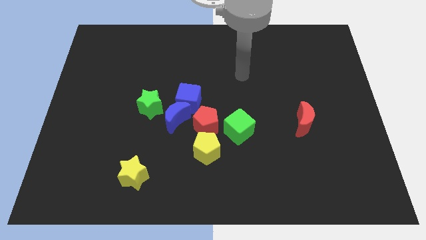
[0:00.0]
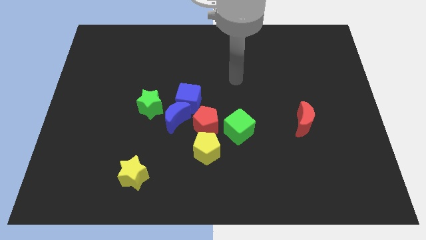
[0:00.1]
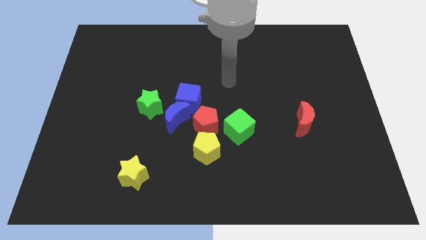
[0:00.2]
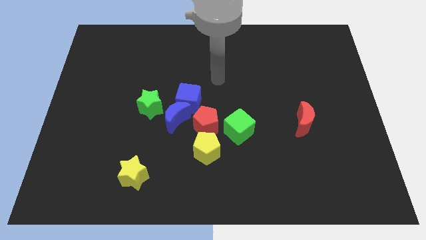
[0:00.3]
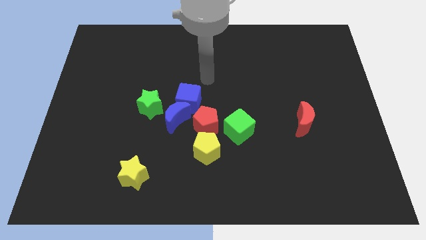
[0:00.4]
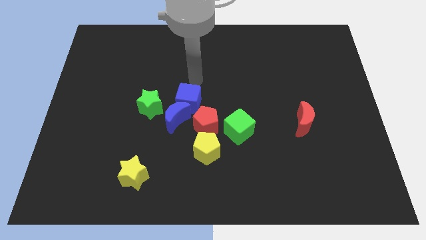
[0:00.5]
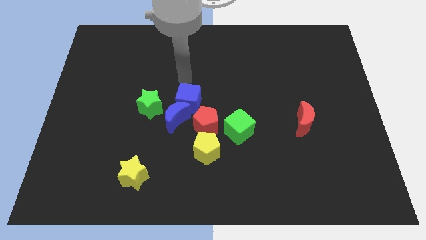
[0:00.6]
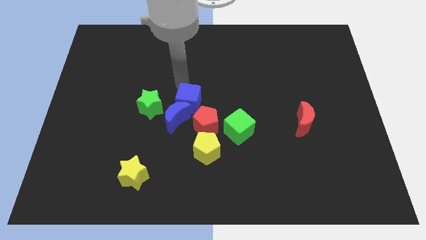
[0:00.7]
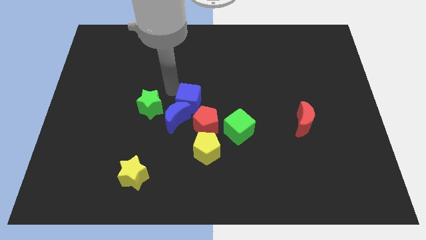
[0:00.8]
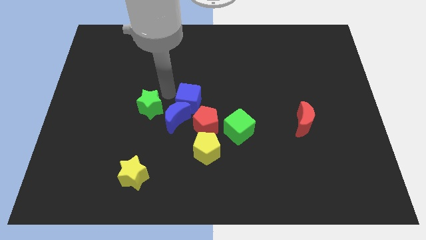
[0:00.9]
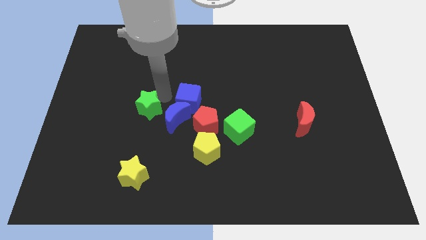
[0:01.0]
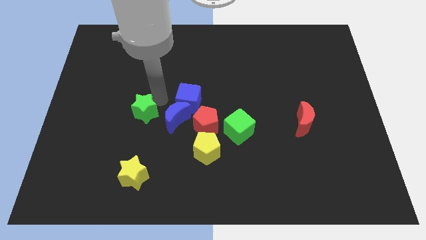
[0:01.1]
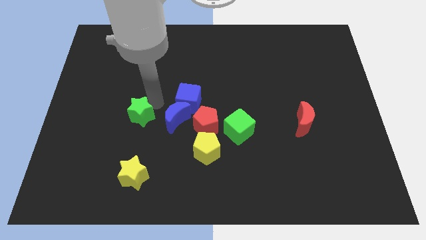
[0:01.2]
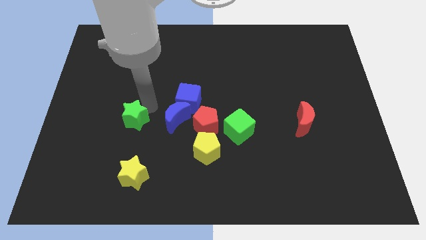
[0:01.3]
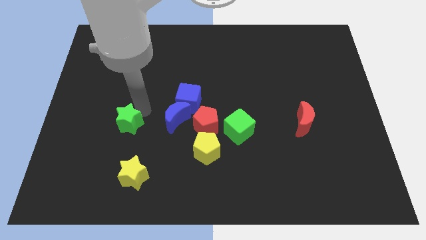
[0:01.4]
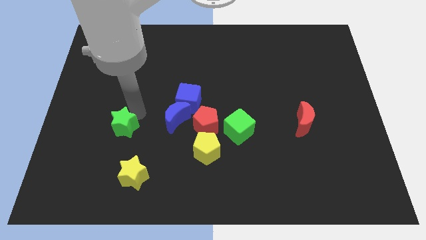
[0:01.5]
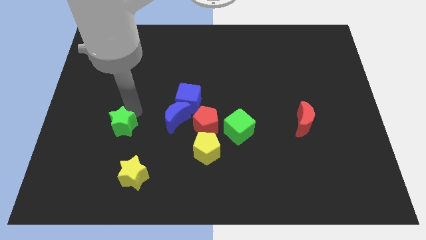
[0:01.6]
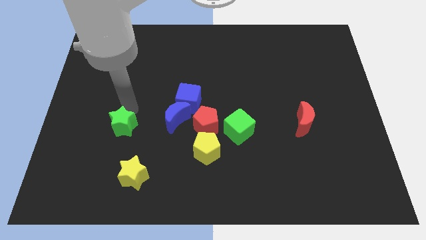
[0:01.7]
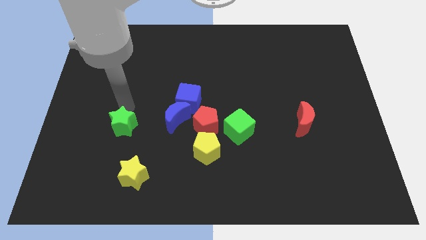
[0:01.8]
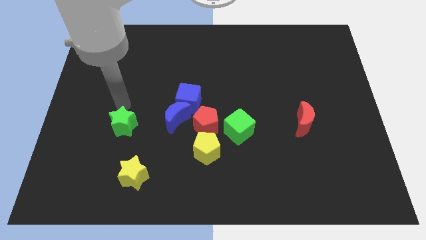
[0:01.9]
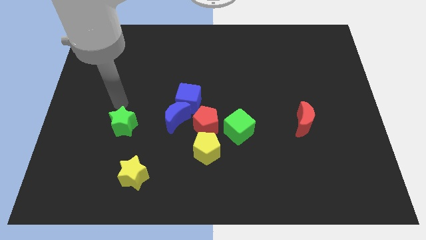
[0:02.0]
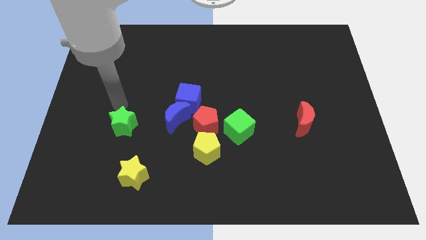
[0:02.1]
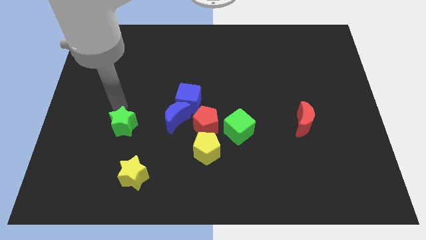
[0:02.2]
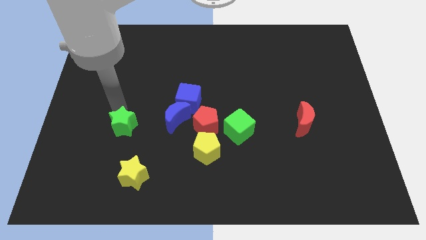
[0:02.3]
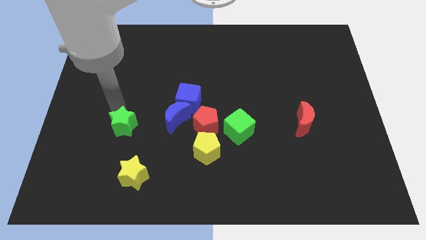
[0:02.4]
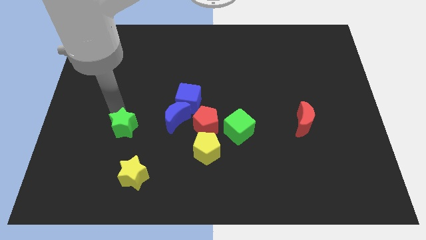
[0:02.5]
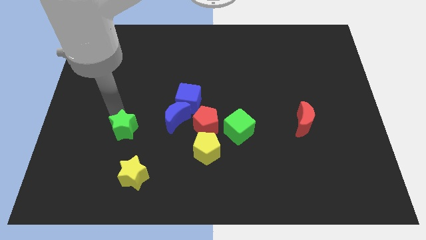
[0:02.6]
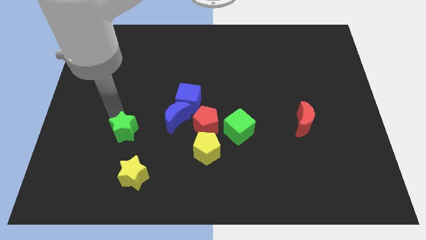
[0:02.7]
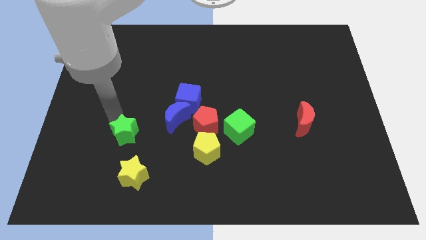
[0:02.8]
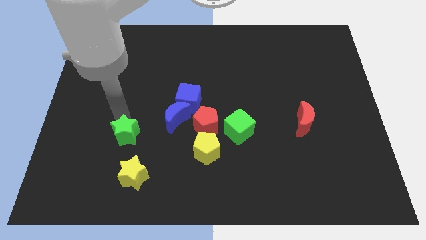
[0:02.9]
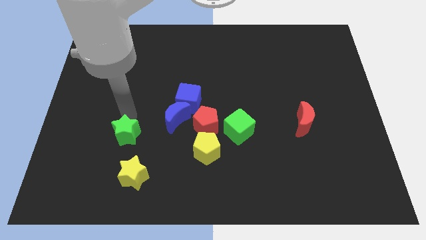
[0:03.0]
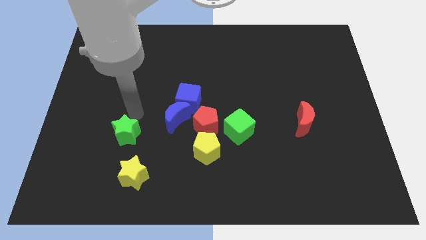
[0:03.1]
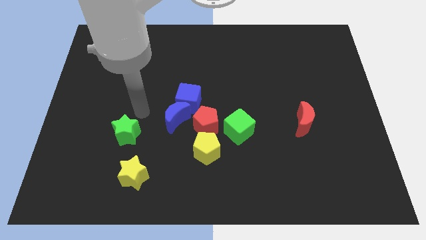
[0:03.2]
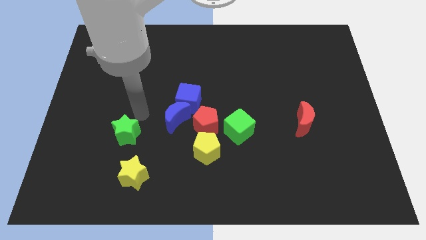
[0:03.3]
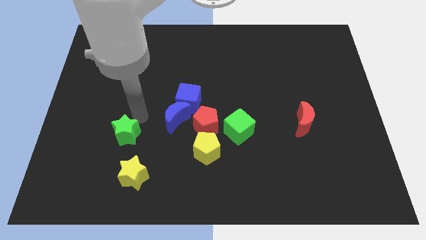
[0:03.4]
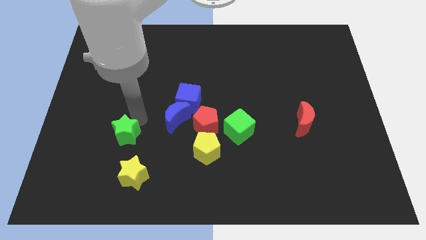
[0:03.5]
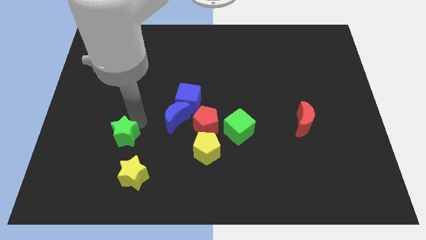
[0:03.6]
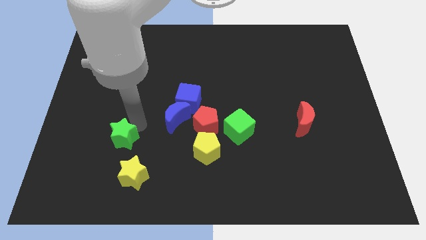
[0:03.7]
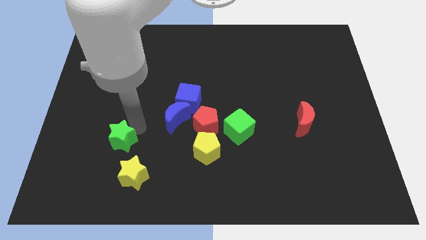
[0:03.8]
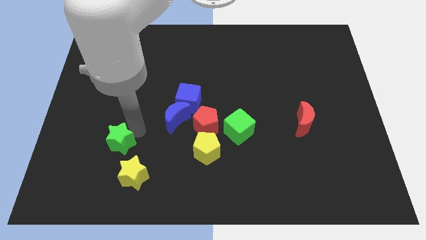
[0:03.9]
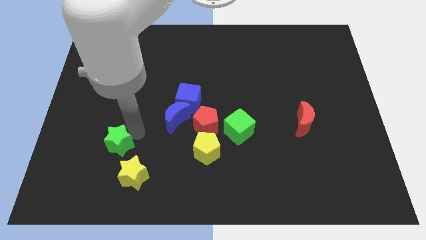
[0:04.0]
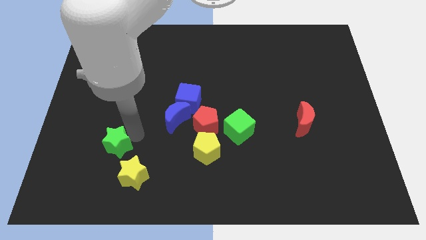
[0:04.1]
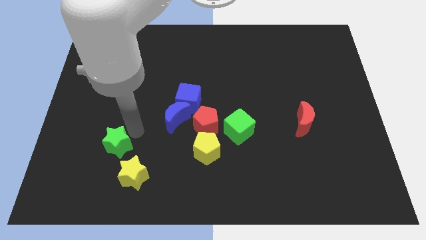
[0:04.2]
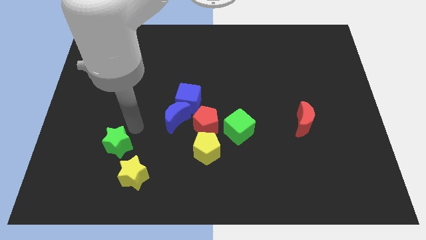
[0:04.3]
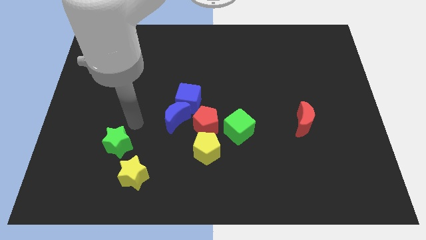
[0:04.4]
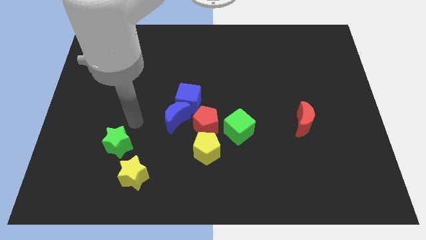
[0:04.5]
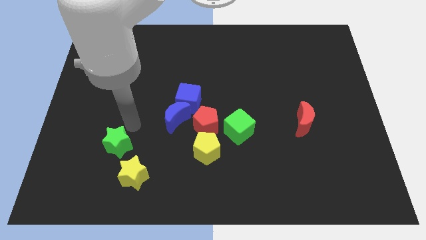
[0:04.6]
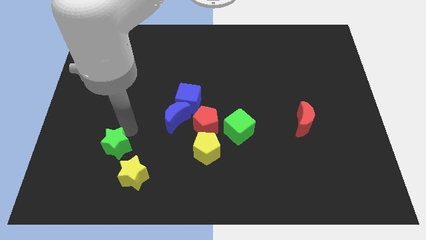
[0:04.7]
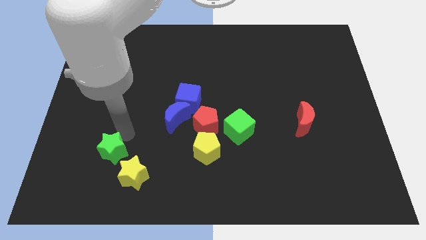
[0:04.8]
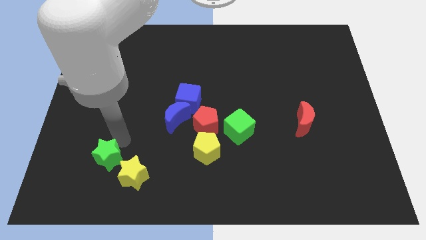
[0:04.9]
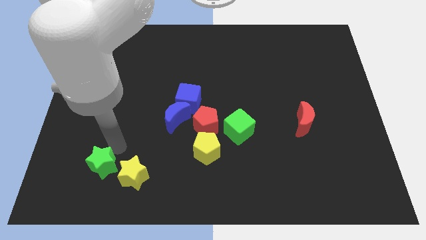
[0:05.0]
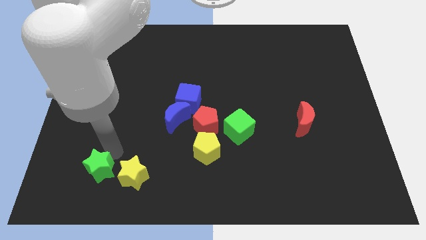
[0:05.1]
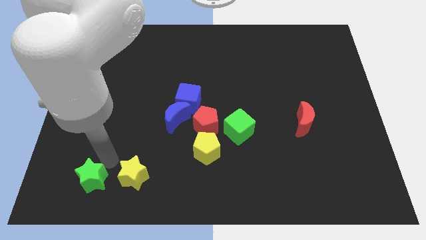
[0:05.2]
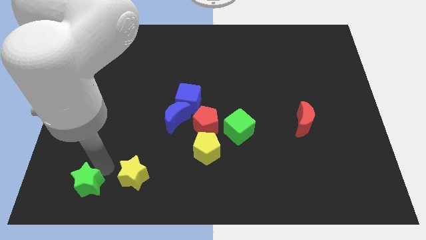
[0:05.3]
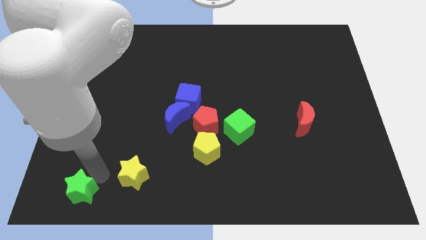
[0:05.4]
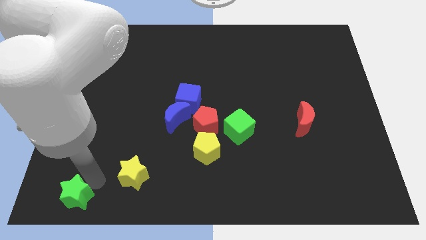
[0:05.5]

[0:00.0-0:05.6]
put the green star to the bottom left

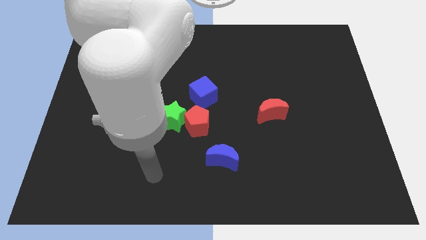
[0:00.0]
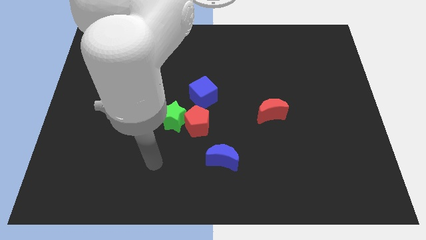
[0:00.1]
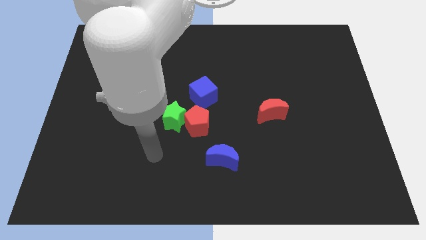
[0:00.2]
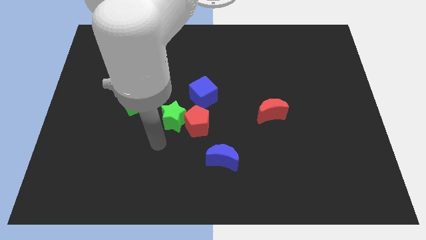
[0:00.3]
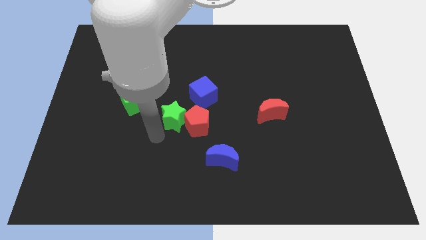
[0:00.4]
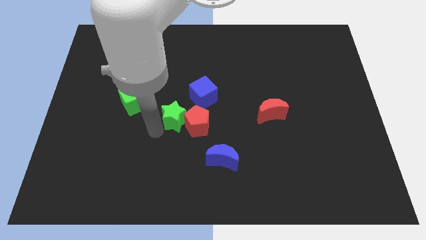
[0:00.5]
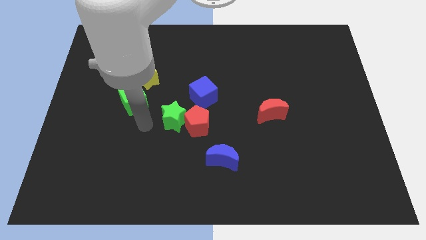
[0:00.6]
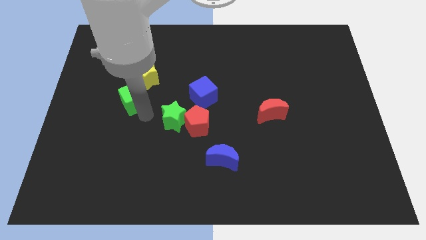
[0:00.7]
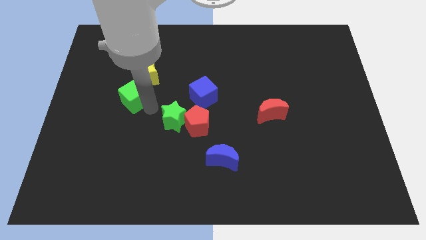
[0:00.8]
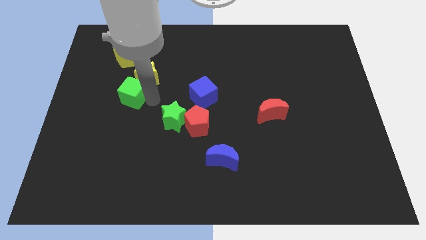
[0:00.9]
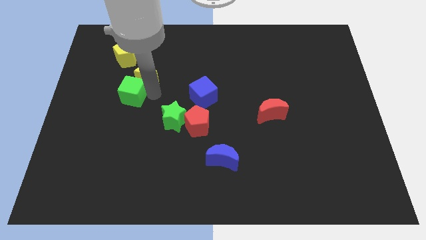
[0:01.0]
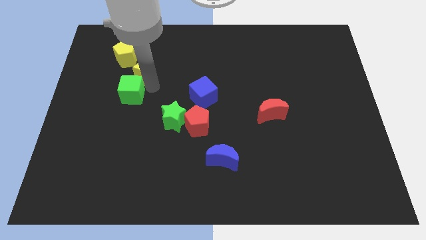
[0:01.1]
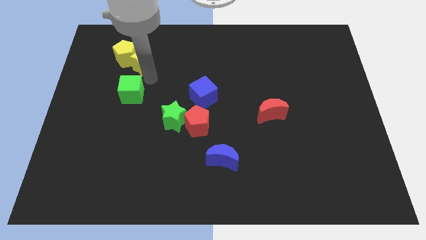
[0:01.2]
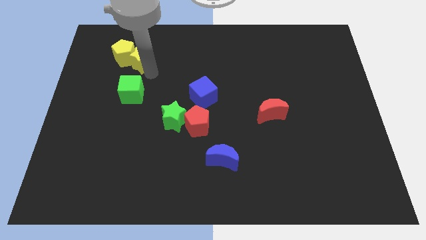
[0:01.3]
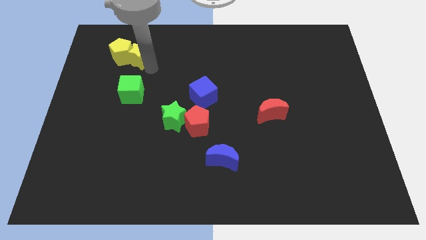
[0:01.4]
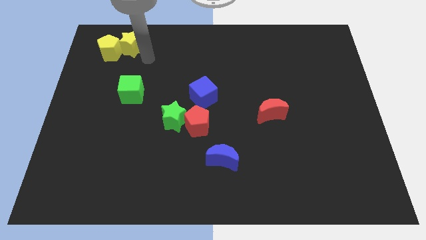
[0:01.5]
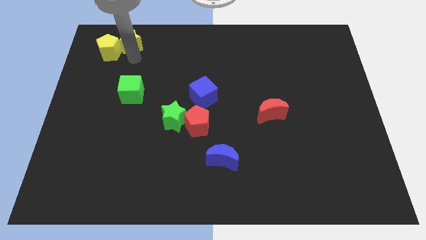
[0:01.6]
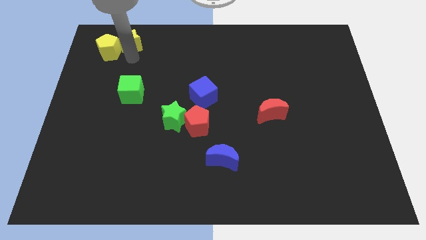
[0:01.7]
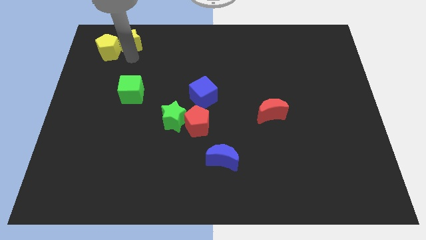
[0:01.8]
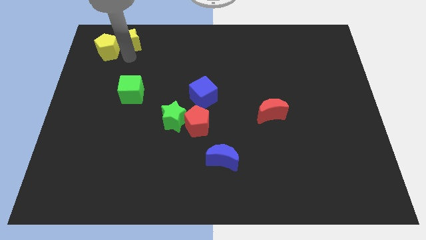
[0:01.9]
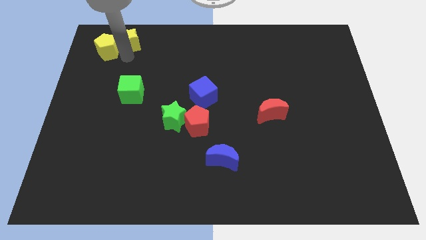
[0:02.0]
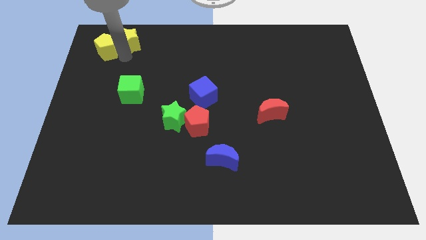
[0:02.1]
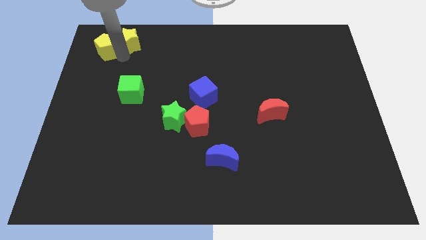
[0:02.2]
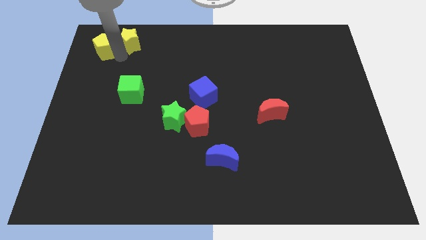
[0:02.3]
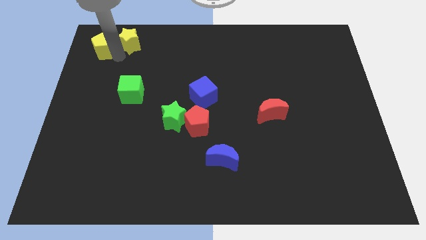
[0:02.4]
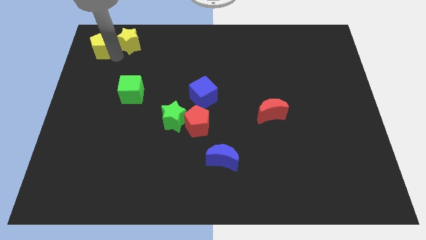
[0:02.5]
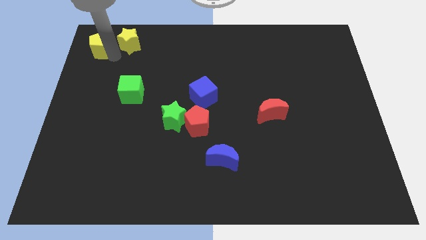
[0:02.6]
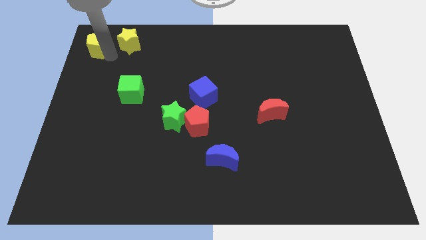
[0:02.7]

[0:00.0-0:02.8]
put the yellow pentagon to the upper left corner
